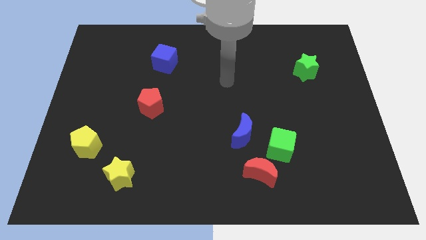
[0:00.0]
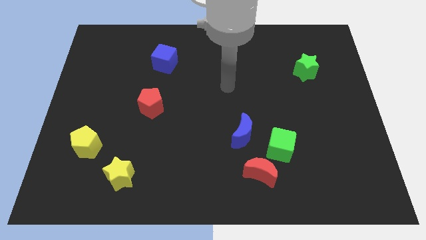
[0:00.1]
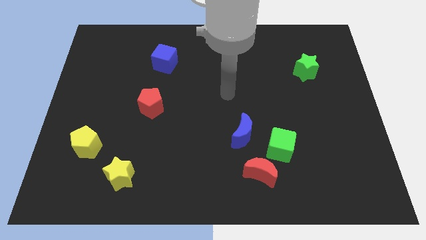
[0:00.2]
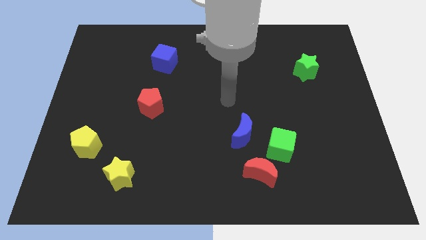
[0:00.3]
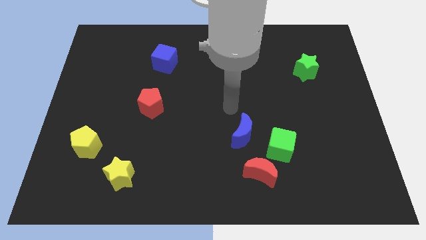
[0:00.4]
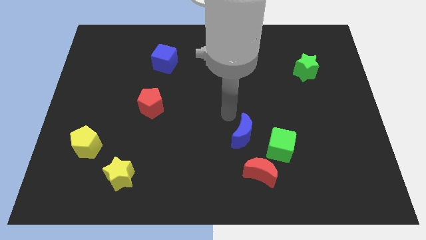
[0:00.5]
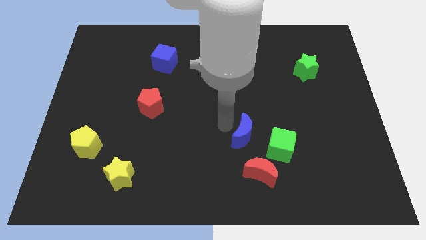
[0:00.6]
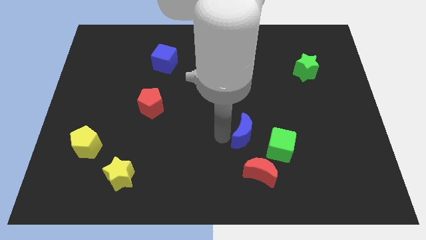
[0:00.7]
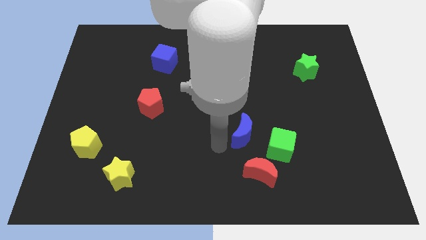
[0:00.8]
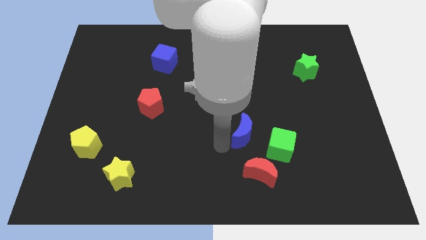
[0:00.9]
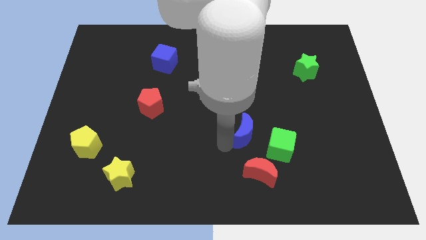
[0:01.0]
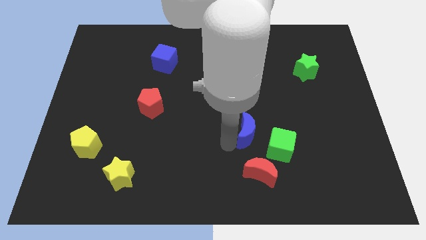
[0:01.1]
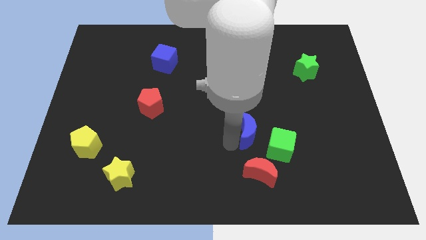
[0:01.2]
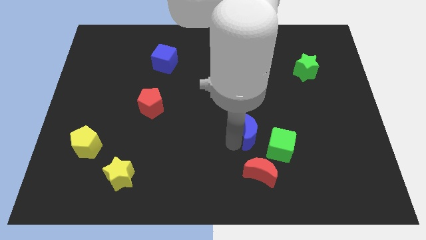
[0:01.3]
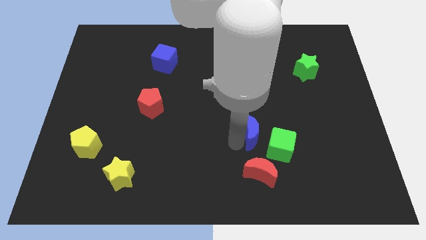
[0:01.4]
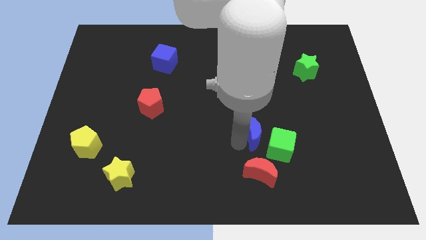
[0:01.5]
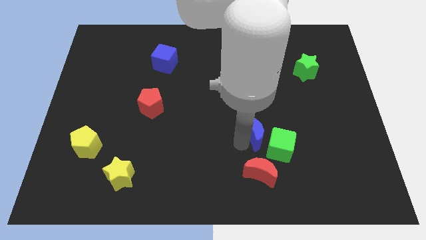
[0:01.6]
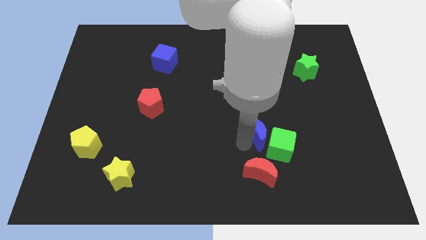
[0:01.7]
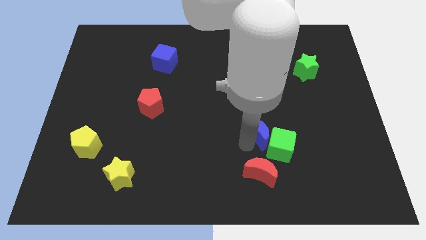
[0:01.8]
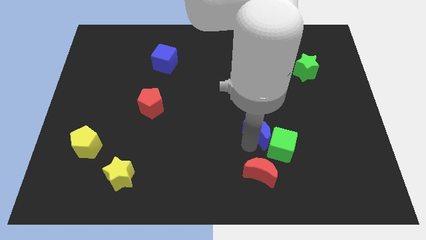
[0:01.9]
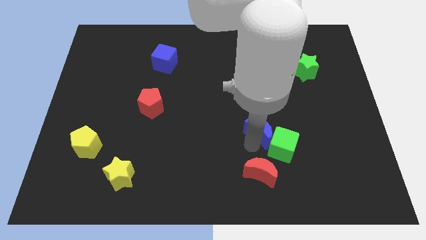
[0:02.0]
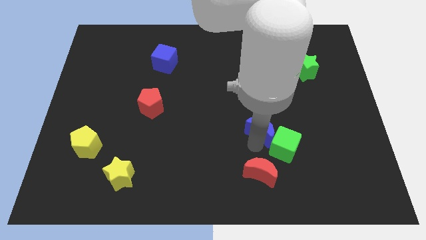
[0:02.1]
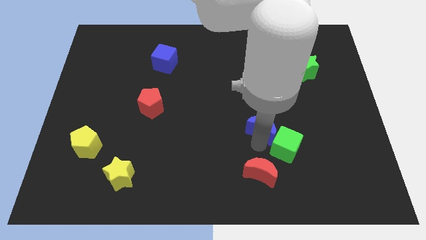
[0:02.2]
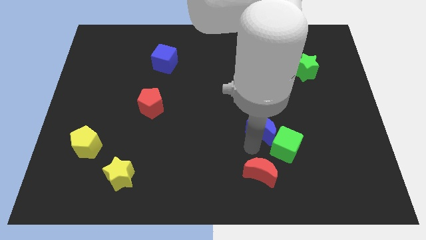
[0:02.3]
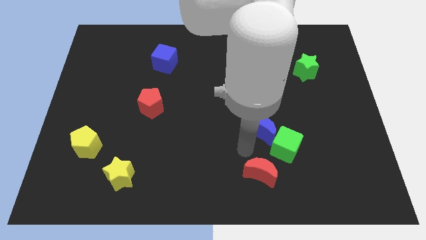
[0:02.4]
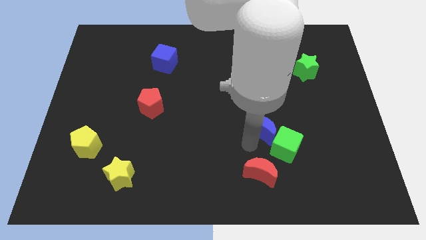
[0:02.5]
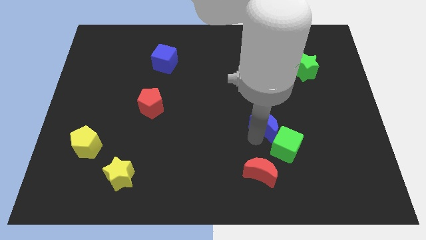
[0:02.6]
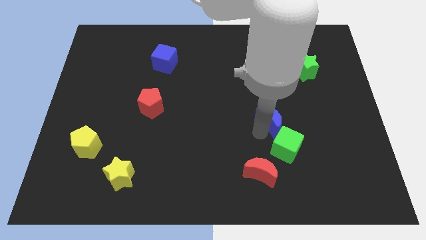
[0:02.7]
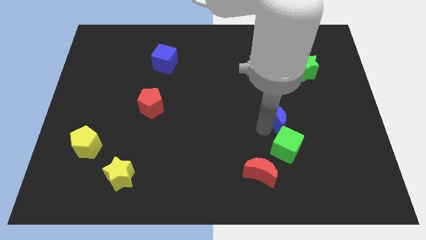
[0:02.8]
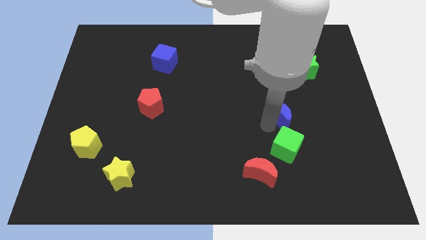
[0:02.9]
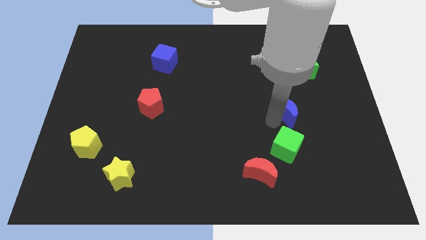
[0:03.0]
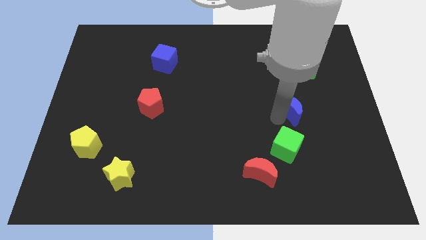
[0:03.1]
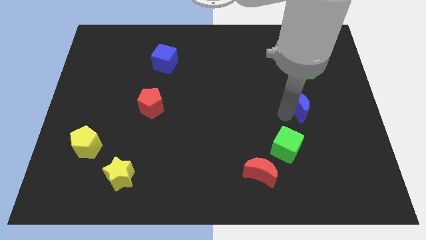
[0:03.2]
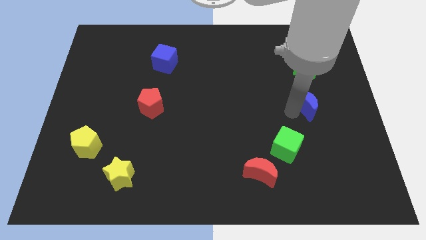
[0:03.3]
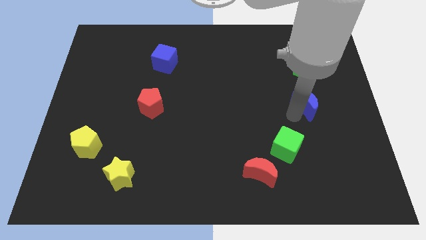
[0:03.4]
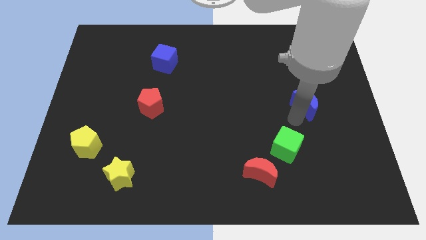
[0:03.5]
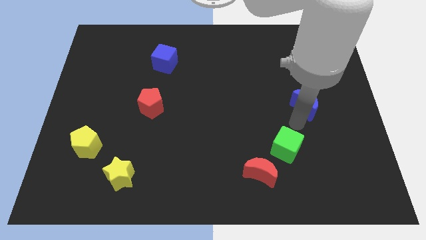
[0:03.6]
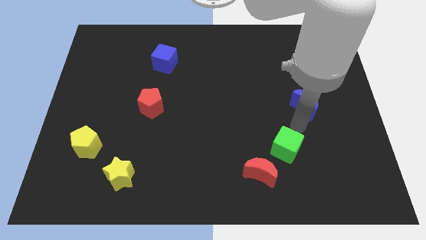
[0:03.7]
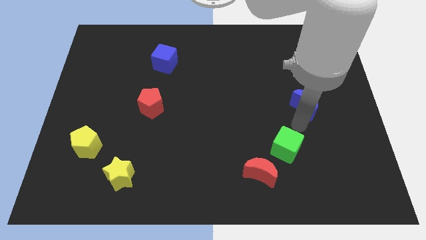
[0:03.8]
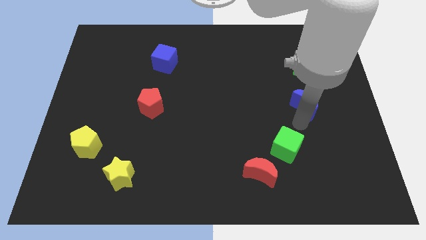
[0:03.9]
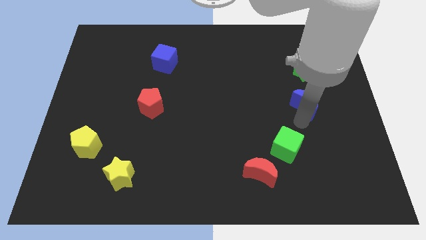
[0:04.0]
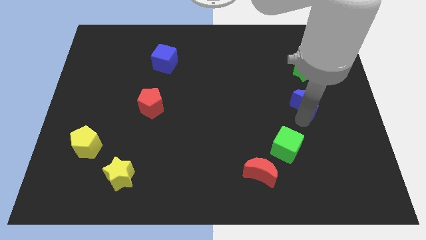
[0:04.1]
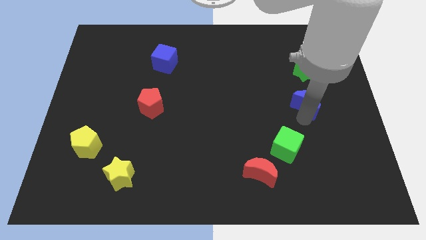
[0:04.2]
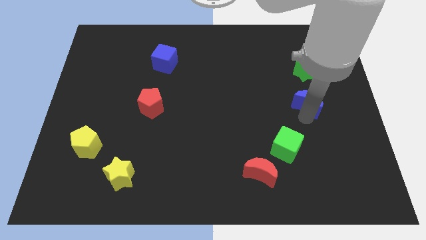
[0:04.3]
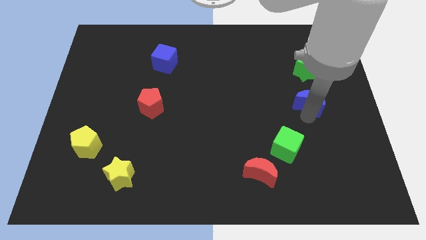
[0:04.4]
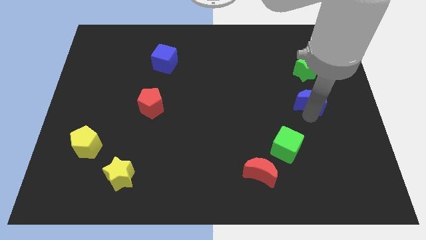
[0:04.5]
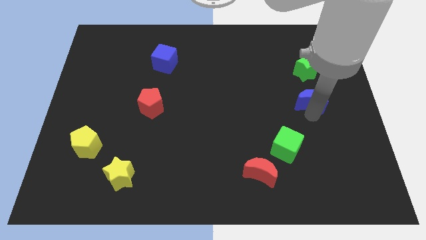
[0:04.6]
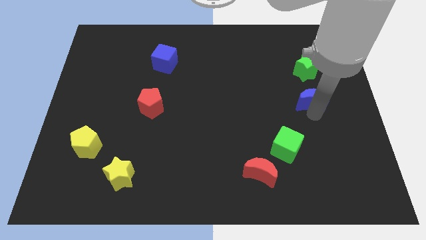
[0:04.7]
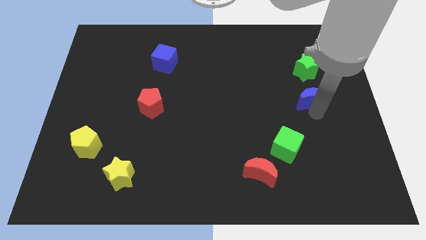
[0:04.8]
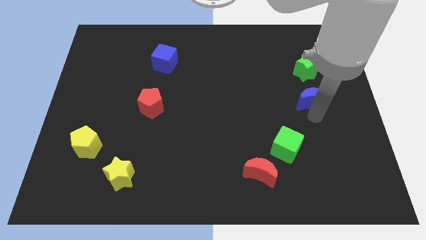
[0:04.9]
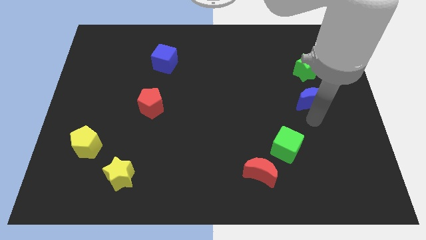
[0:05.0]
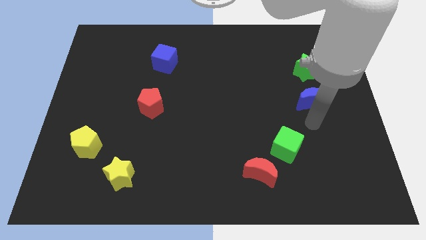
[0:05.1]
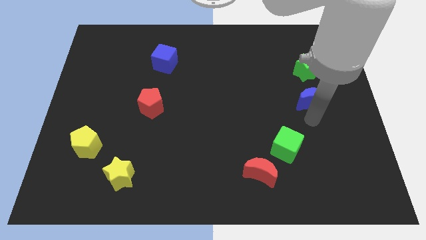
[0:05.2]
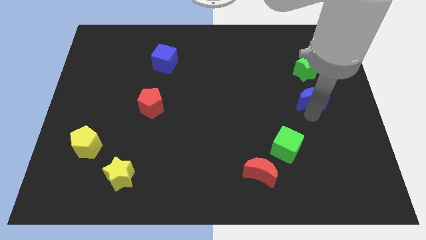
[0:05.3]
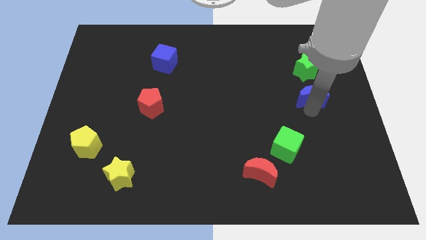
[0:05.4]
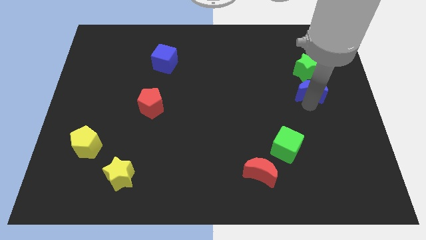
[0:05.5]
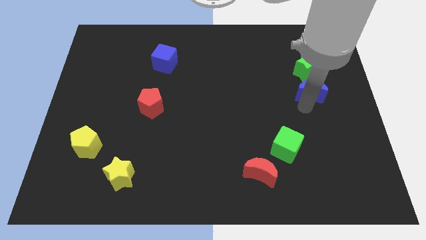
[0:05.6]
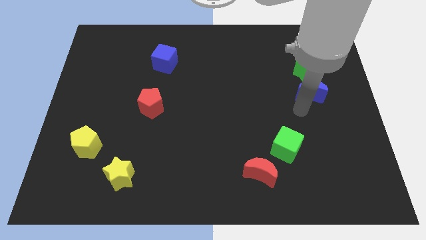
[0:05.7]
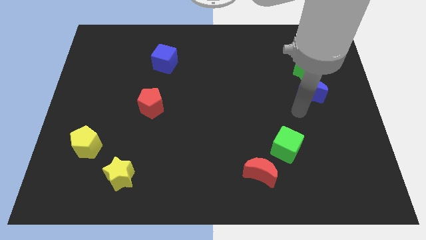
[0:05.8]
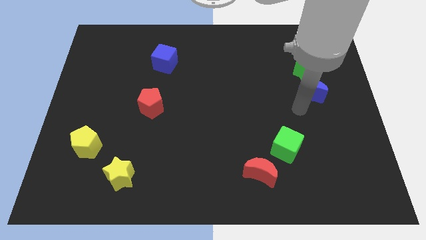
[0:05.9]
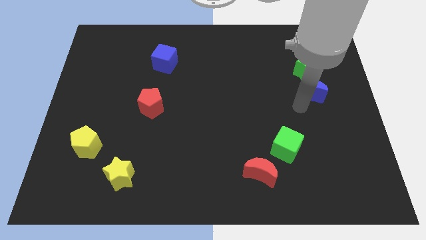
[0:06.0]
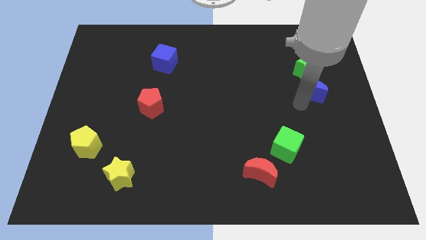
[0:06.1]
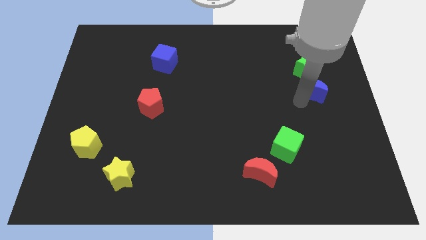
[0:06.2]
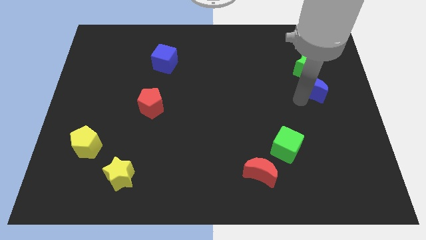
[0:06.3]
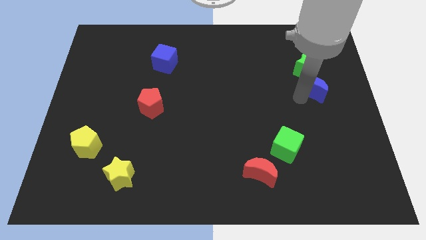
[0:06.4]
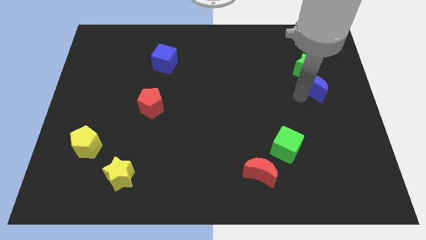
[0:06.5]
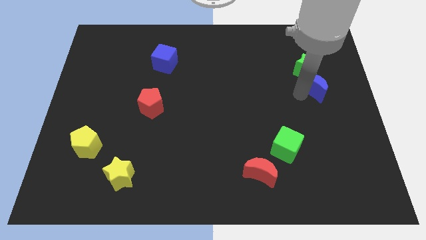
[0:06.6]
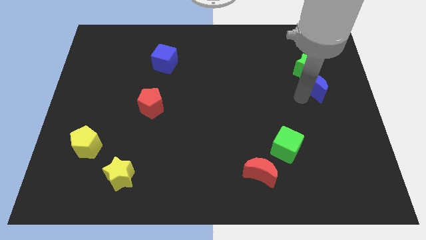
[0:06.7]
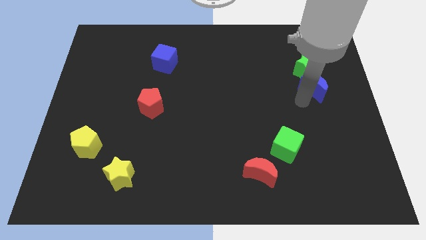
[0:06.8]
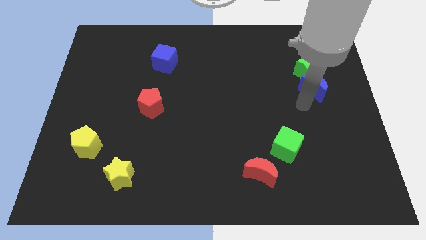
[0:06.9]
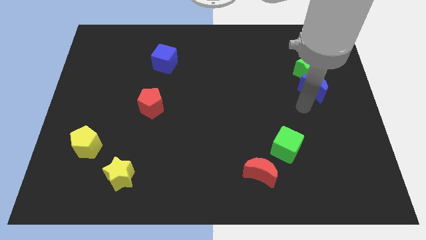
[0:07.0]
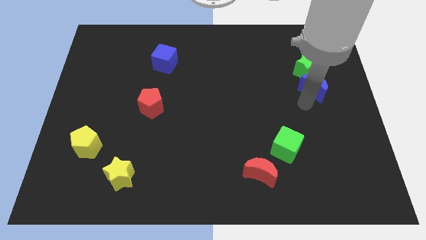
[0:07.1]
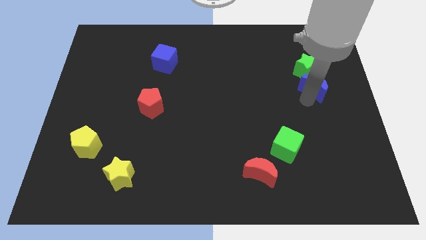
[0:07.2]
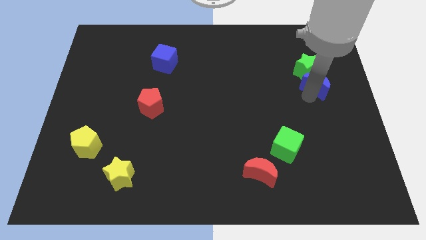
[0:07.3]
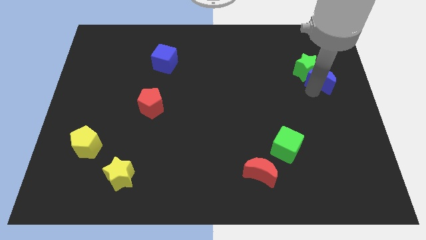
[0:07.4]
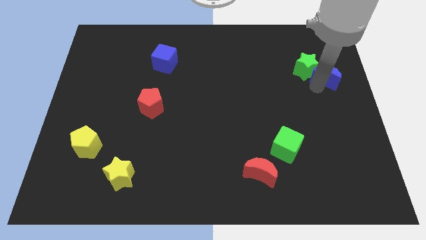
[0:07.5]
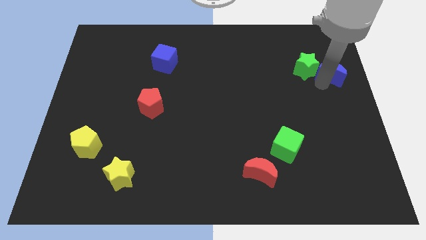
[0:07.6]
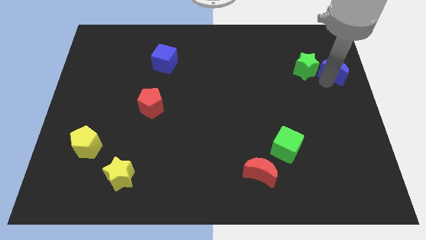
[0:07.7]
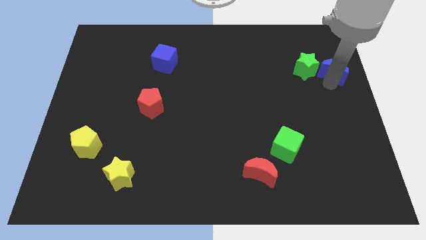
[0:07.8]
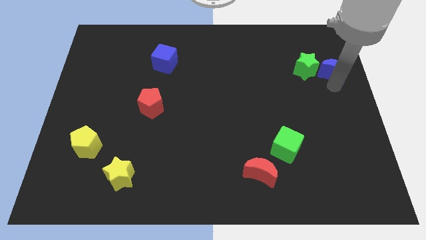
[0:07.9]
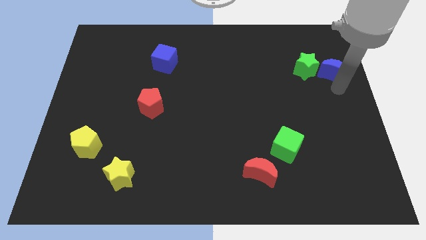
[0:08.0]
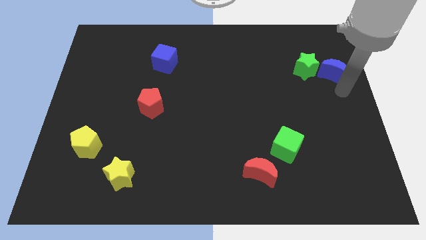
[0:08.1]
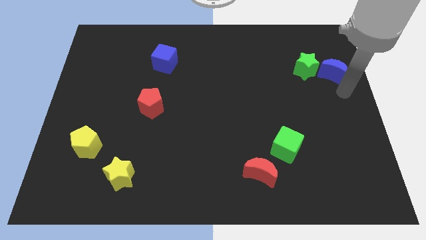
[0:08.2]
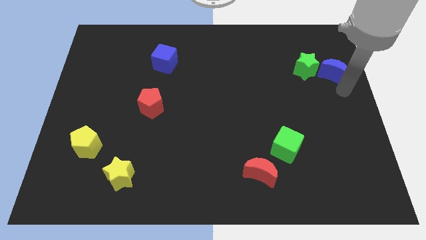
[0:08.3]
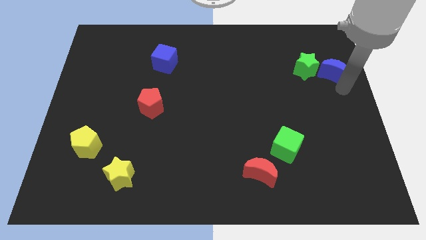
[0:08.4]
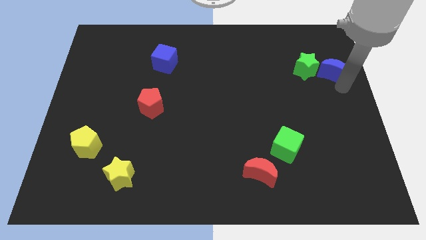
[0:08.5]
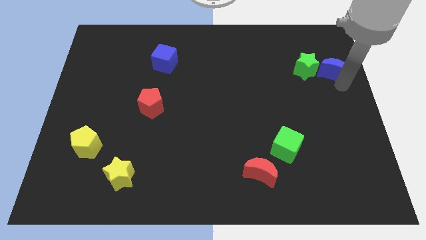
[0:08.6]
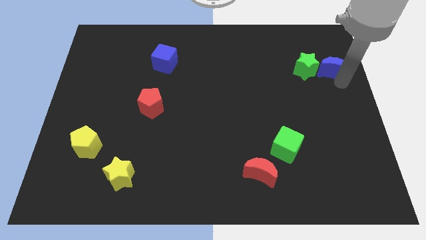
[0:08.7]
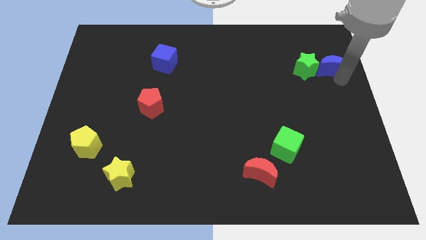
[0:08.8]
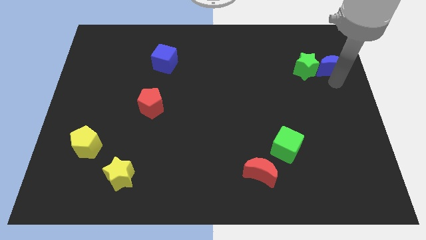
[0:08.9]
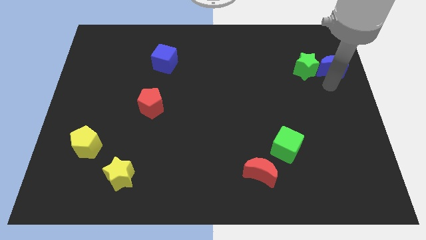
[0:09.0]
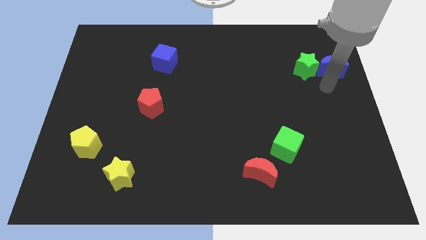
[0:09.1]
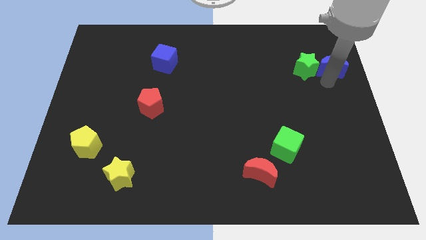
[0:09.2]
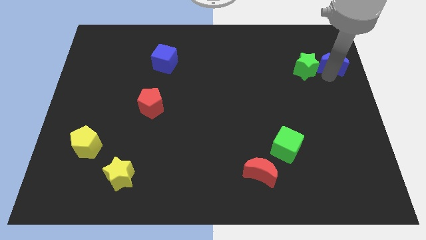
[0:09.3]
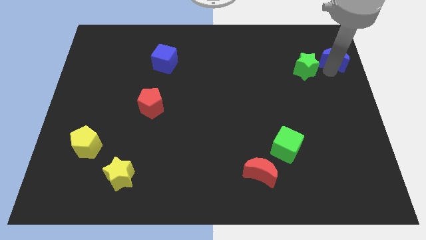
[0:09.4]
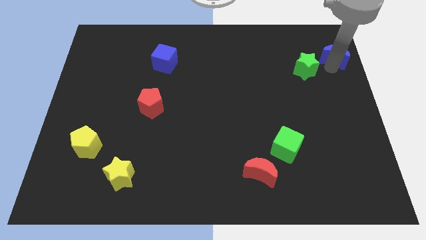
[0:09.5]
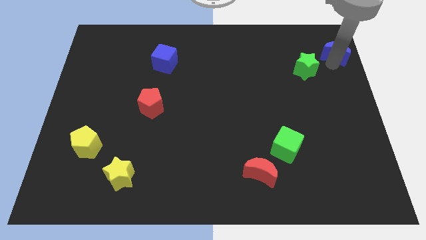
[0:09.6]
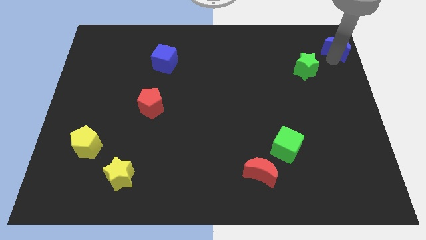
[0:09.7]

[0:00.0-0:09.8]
slide the blue moon to the top right corner
